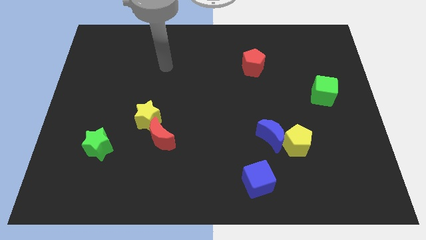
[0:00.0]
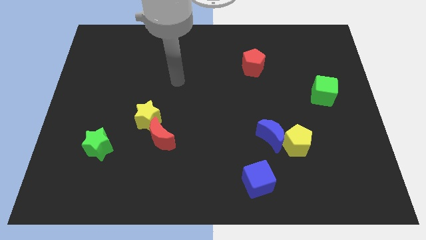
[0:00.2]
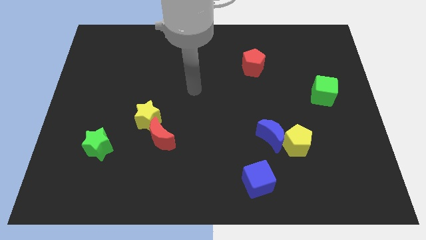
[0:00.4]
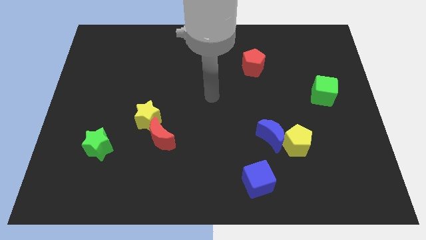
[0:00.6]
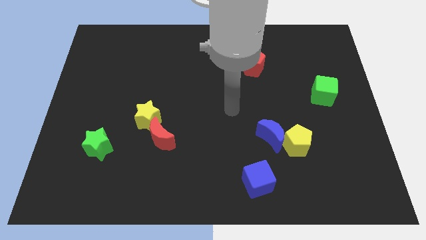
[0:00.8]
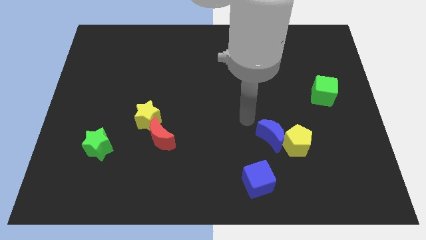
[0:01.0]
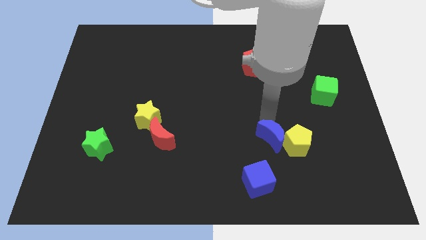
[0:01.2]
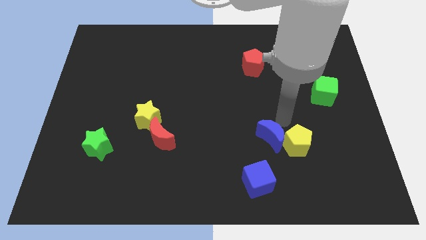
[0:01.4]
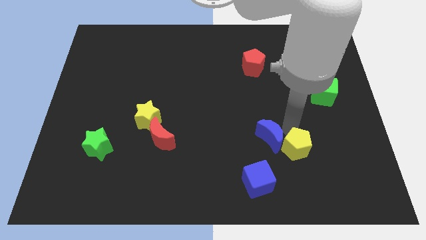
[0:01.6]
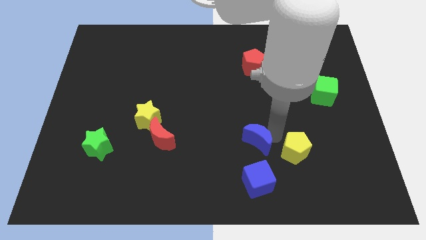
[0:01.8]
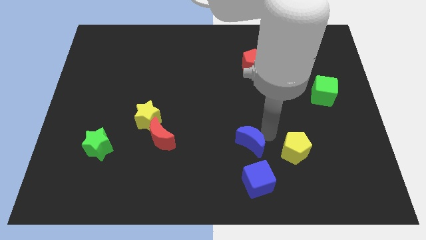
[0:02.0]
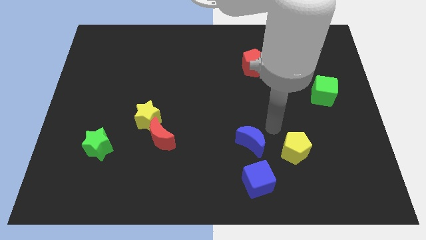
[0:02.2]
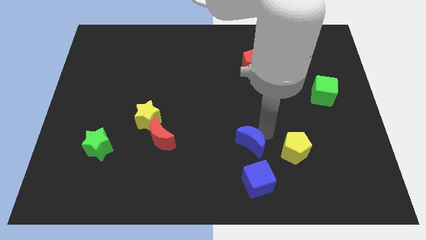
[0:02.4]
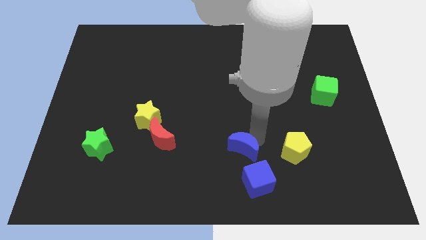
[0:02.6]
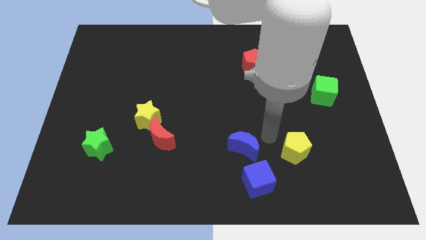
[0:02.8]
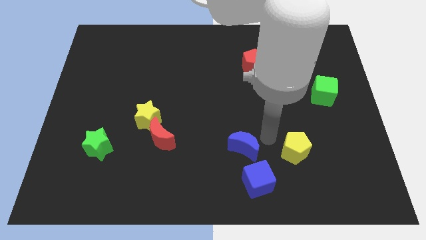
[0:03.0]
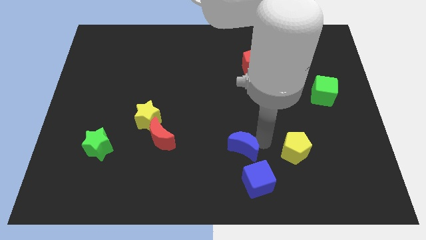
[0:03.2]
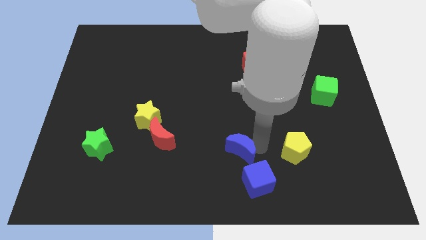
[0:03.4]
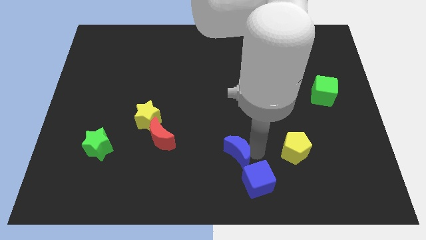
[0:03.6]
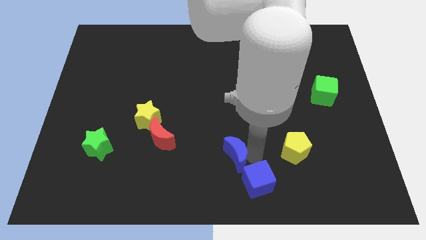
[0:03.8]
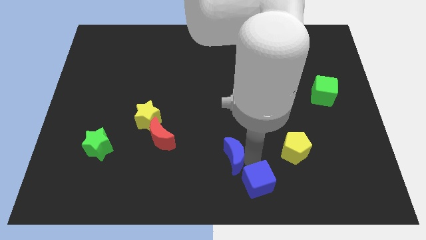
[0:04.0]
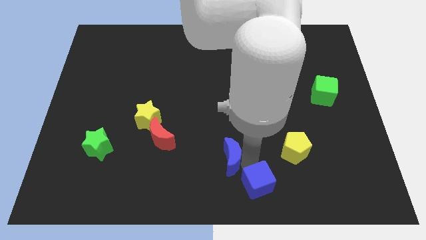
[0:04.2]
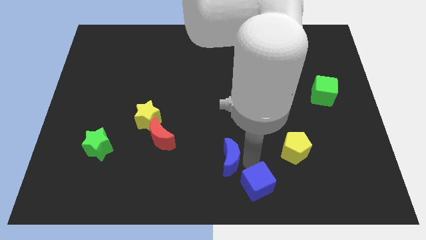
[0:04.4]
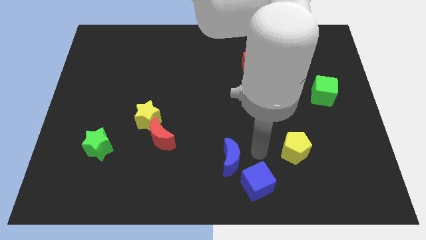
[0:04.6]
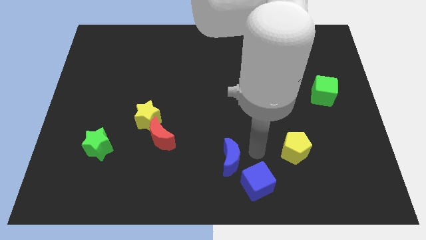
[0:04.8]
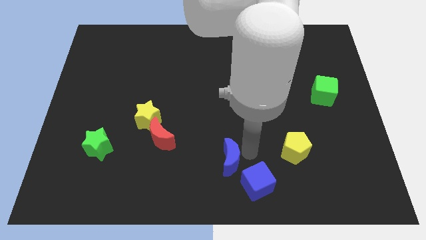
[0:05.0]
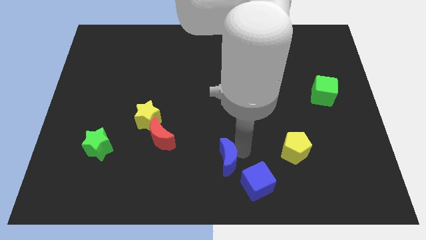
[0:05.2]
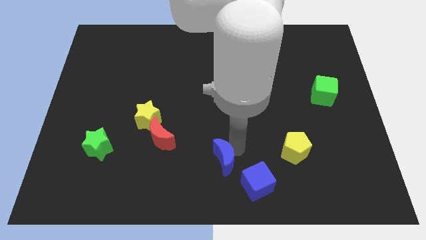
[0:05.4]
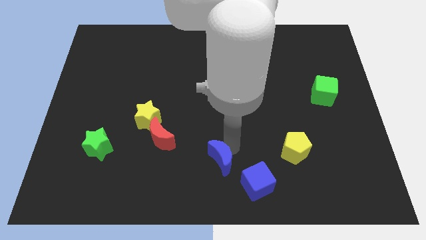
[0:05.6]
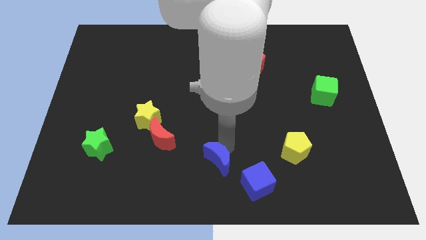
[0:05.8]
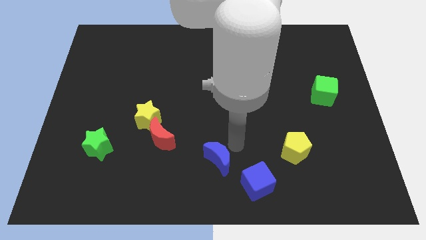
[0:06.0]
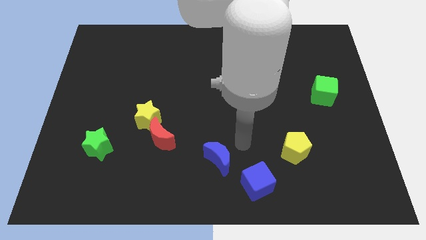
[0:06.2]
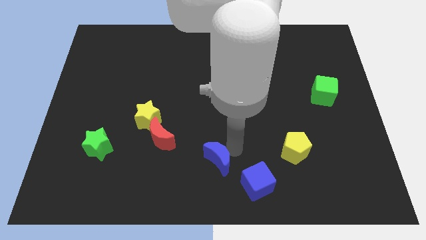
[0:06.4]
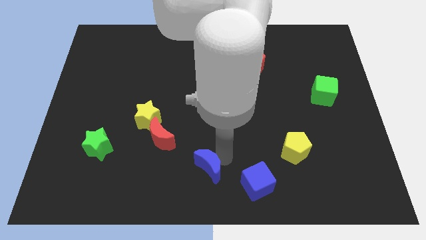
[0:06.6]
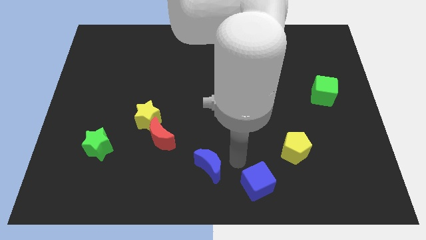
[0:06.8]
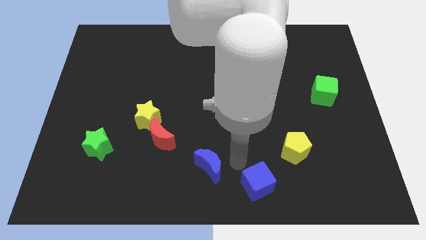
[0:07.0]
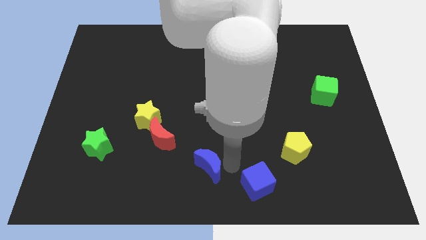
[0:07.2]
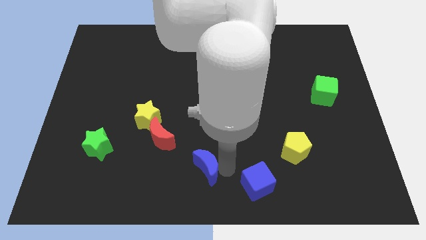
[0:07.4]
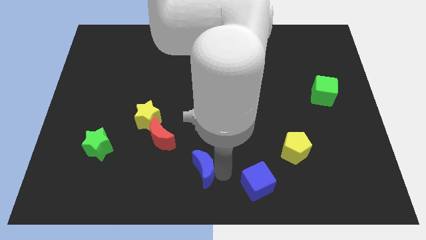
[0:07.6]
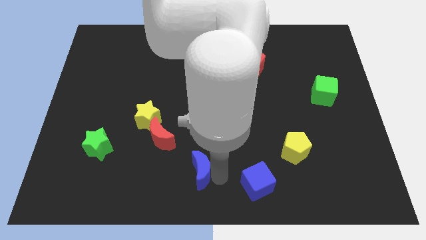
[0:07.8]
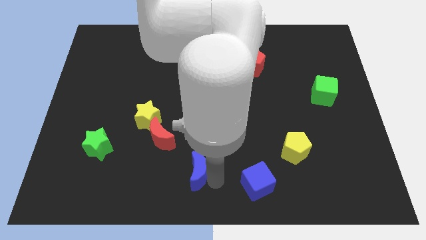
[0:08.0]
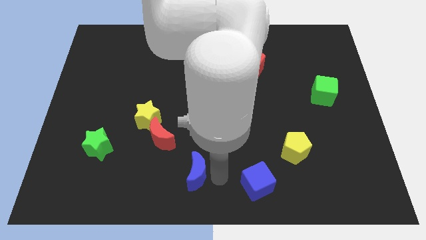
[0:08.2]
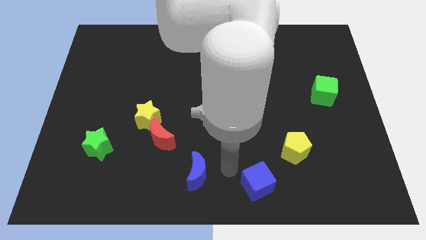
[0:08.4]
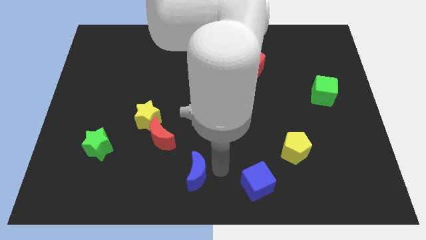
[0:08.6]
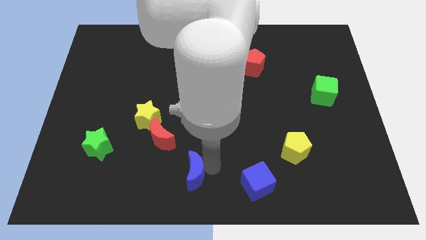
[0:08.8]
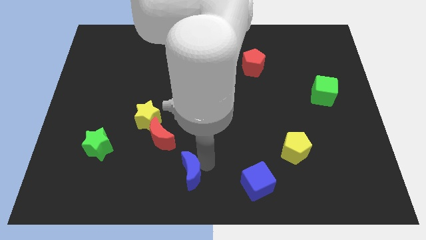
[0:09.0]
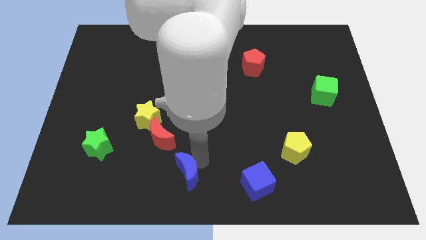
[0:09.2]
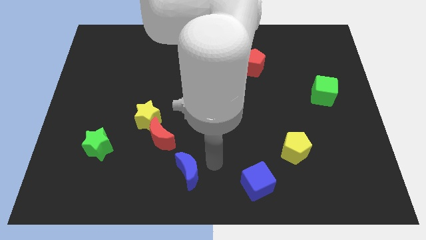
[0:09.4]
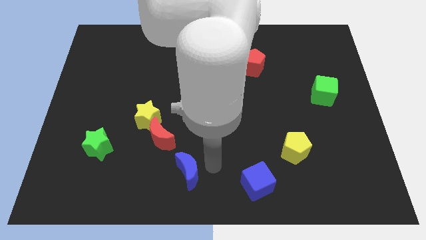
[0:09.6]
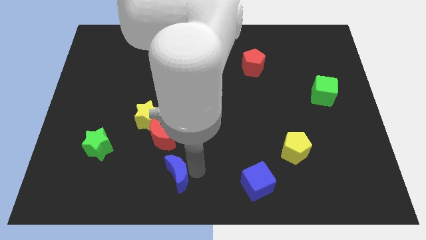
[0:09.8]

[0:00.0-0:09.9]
move the blue moon to the bottom side of the red moon

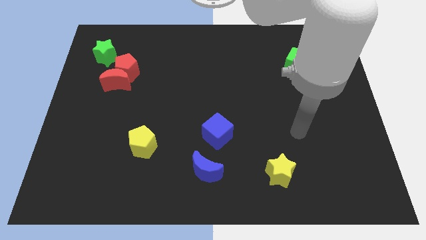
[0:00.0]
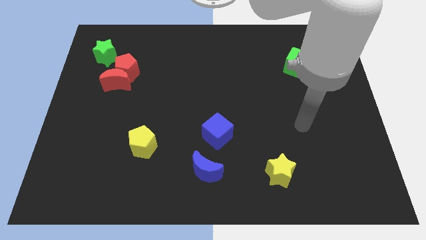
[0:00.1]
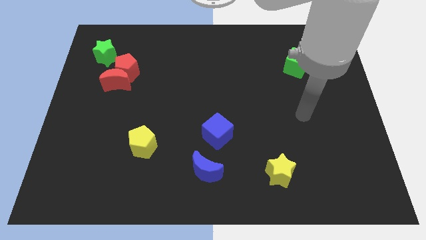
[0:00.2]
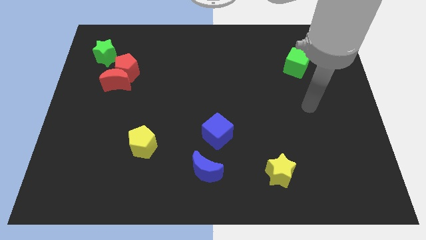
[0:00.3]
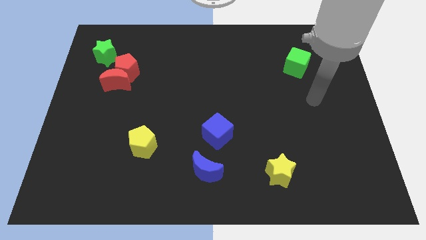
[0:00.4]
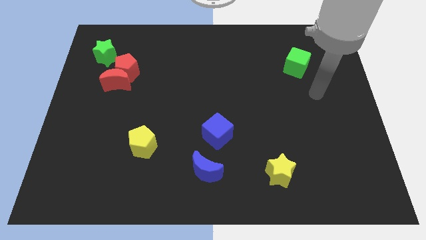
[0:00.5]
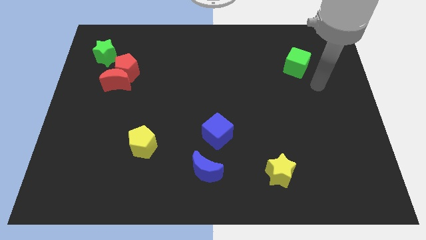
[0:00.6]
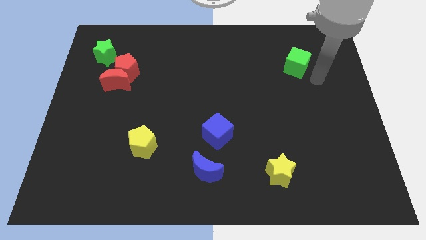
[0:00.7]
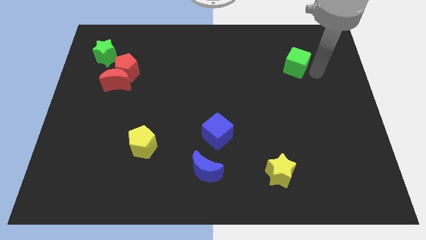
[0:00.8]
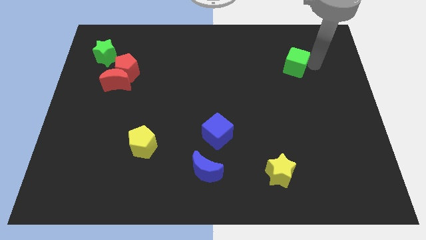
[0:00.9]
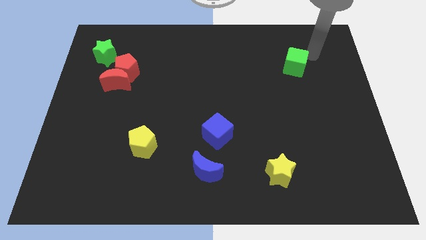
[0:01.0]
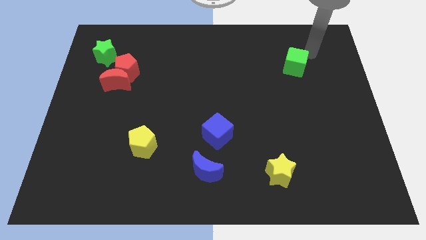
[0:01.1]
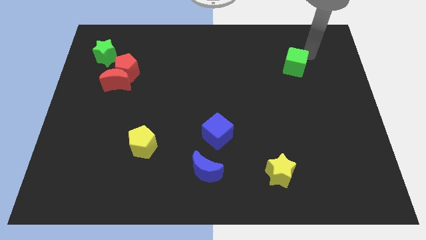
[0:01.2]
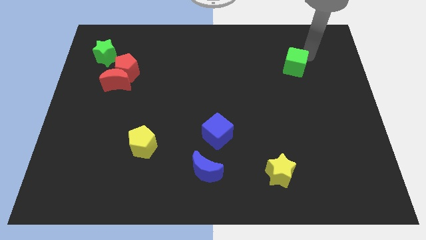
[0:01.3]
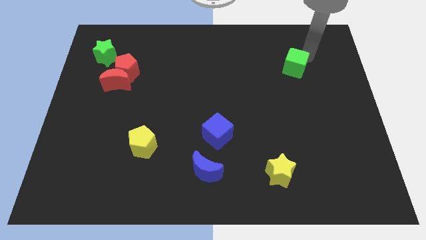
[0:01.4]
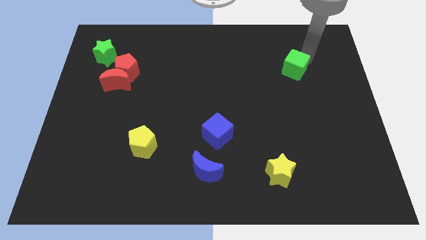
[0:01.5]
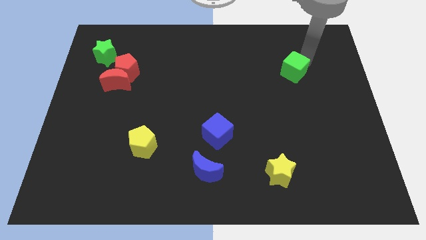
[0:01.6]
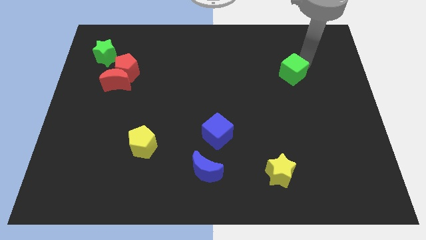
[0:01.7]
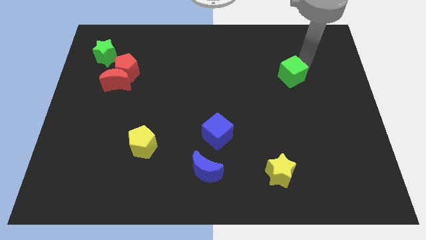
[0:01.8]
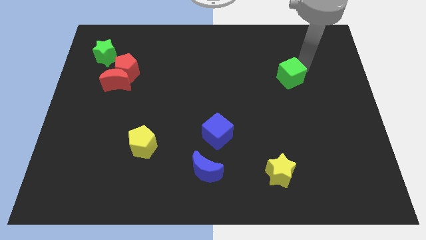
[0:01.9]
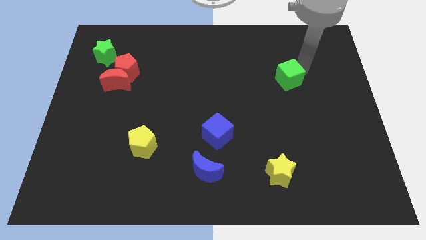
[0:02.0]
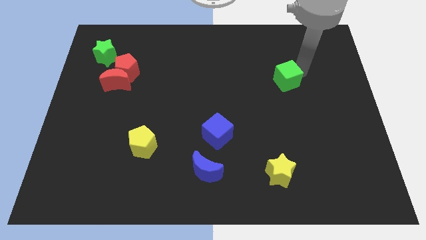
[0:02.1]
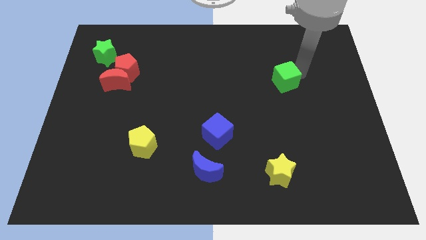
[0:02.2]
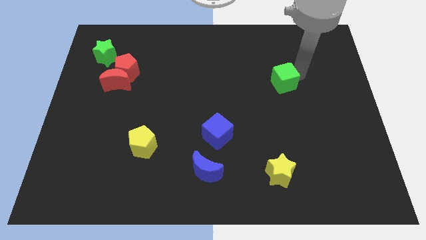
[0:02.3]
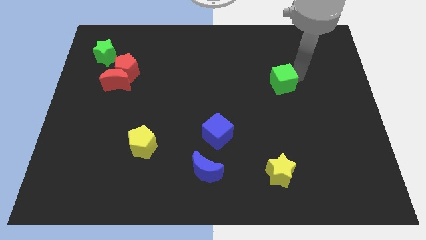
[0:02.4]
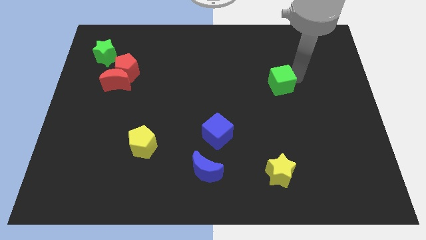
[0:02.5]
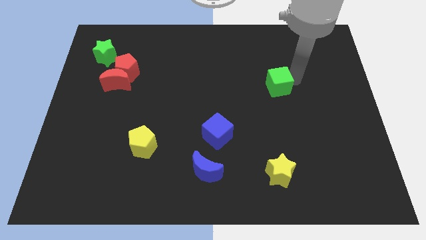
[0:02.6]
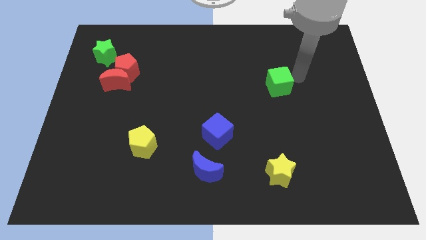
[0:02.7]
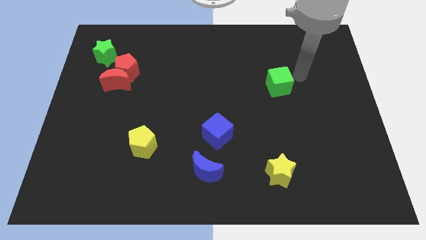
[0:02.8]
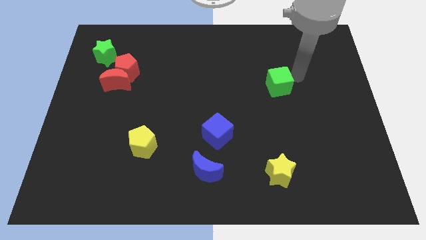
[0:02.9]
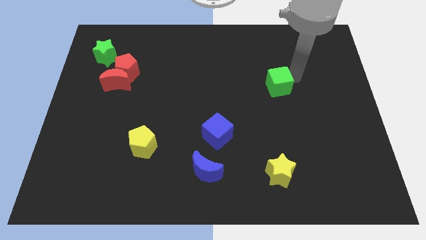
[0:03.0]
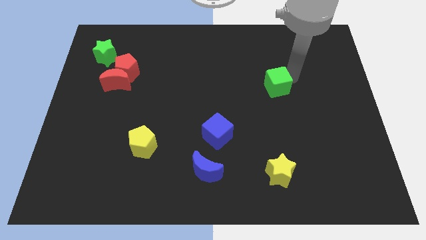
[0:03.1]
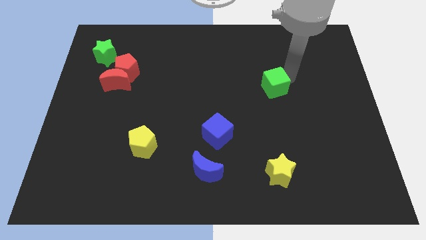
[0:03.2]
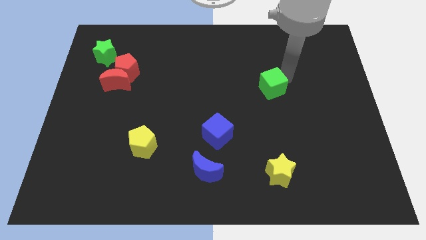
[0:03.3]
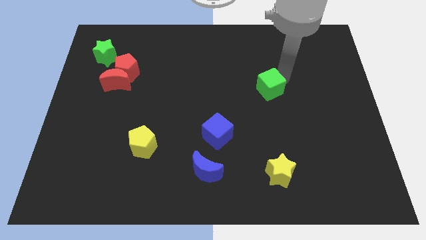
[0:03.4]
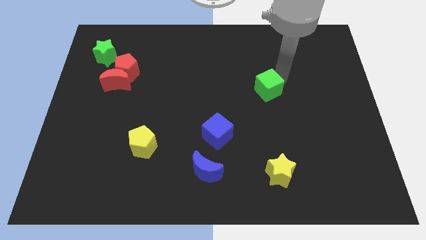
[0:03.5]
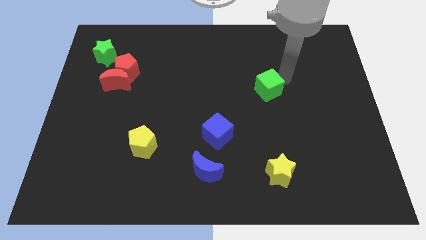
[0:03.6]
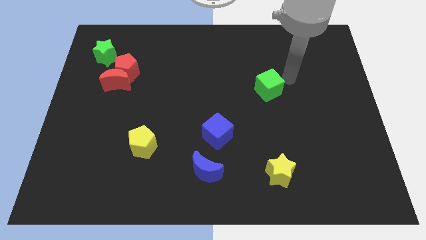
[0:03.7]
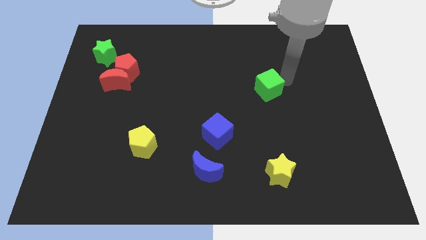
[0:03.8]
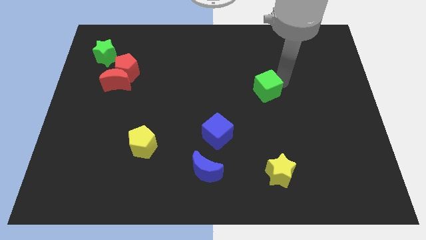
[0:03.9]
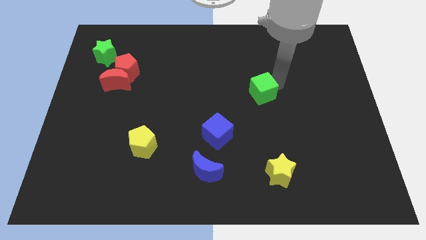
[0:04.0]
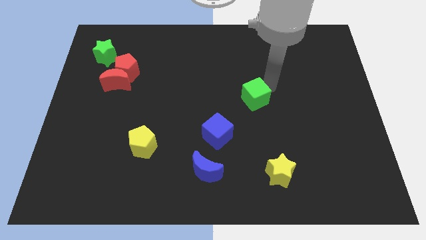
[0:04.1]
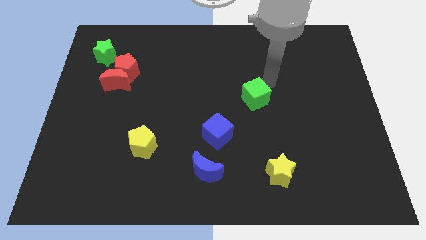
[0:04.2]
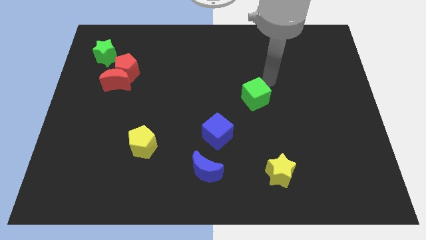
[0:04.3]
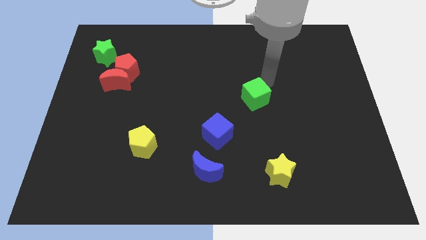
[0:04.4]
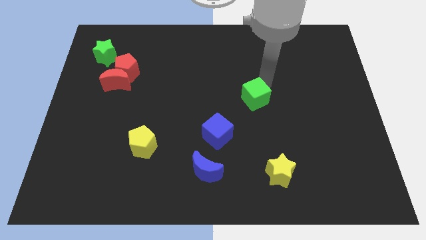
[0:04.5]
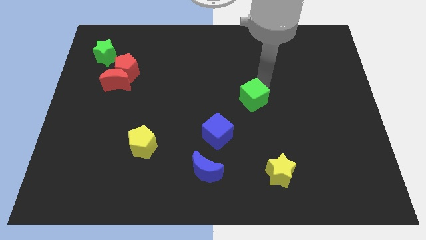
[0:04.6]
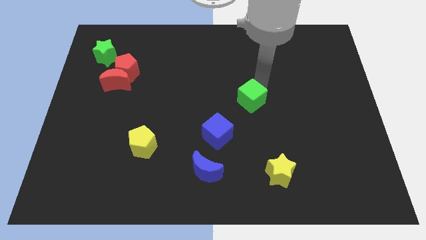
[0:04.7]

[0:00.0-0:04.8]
move the green cube to the top right side of the blue cube
